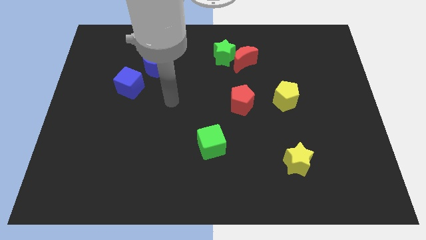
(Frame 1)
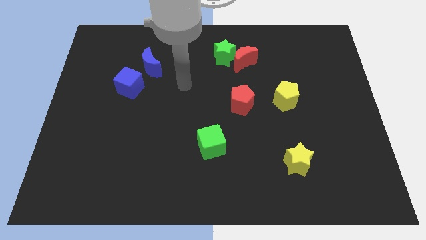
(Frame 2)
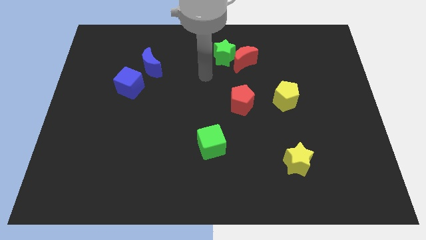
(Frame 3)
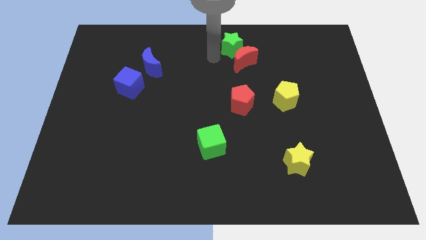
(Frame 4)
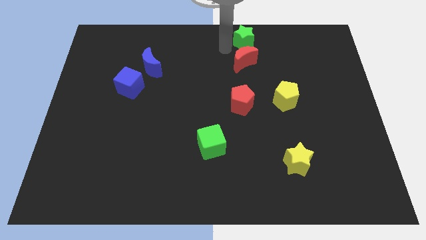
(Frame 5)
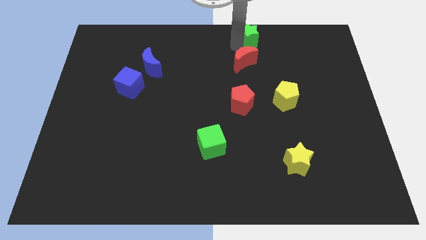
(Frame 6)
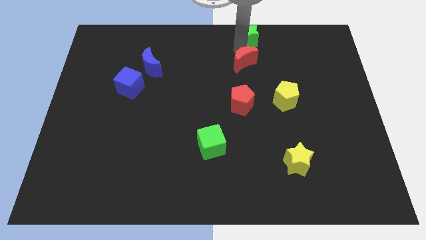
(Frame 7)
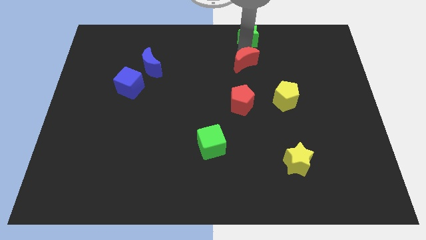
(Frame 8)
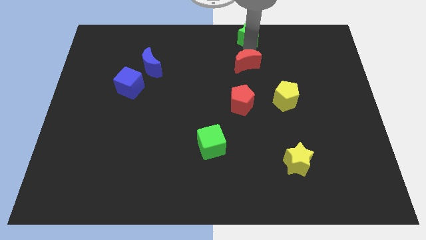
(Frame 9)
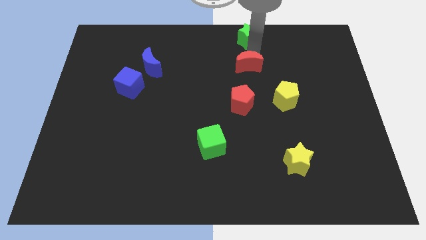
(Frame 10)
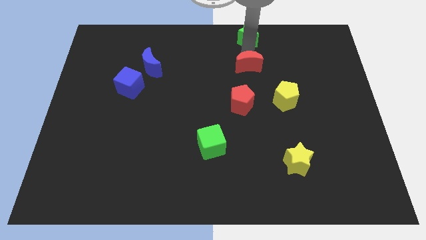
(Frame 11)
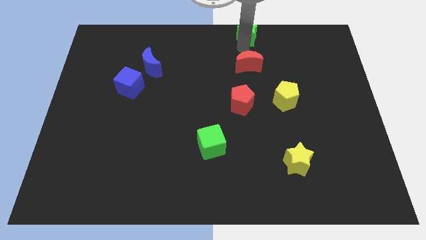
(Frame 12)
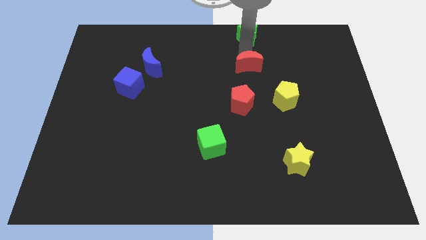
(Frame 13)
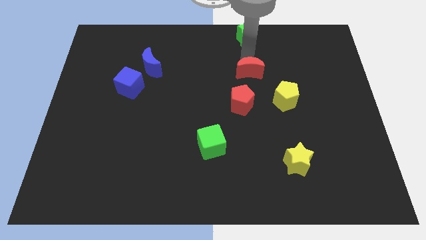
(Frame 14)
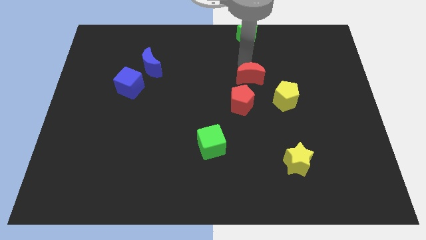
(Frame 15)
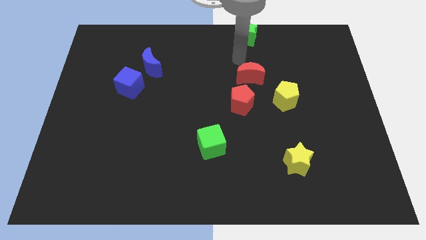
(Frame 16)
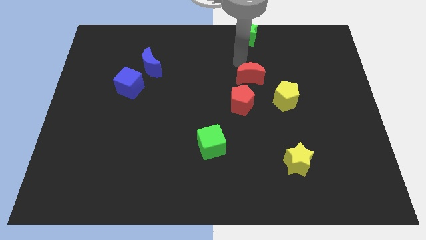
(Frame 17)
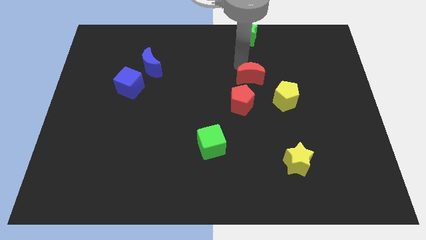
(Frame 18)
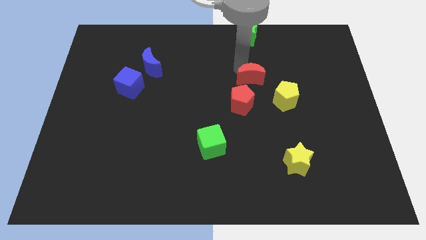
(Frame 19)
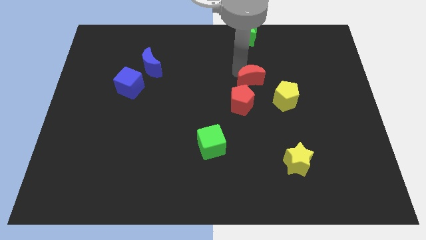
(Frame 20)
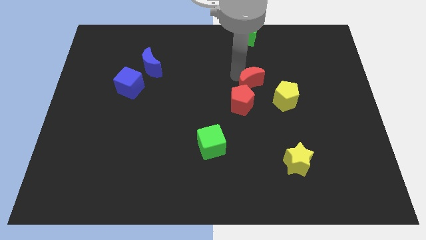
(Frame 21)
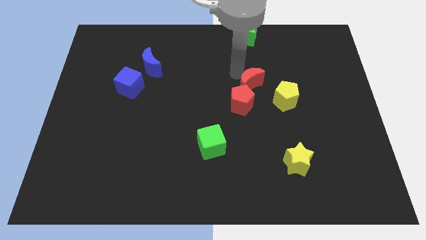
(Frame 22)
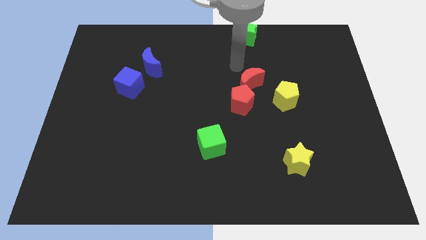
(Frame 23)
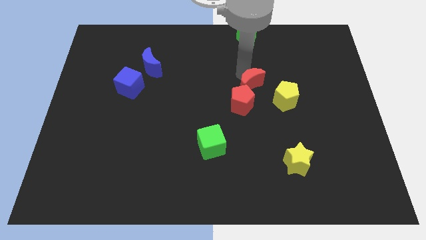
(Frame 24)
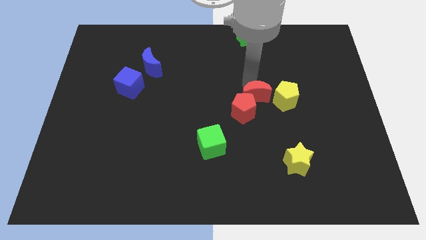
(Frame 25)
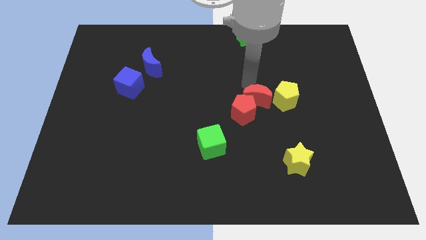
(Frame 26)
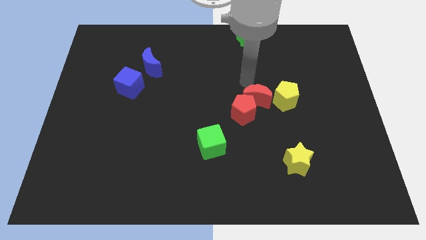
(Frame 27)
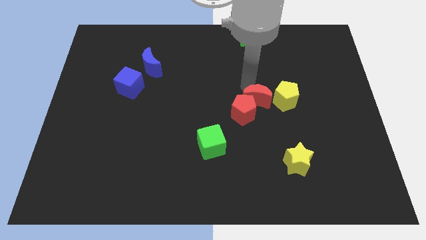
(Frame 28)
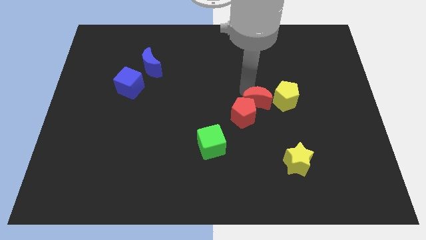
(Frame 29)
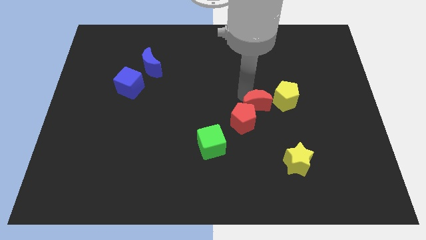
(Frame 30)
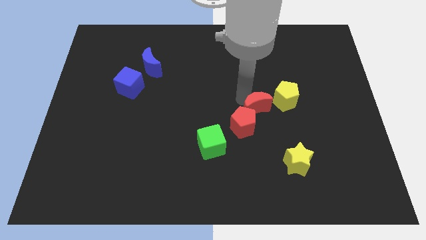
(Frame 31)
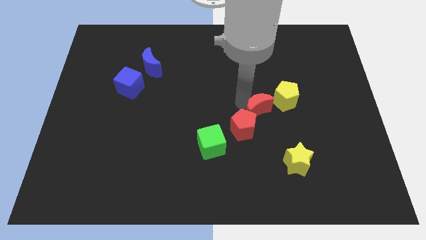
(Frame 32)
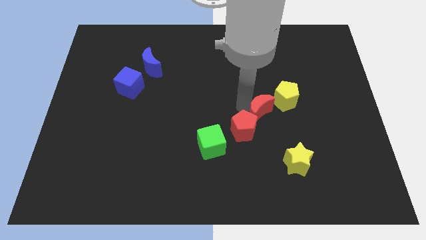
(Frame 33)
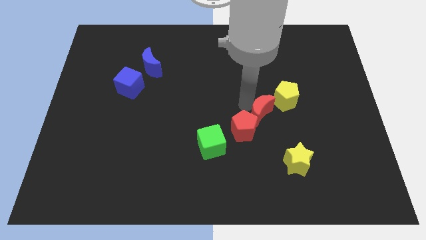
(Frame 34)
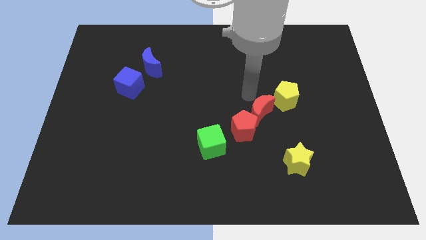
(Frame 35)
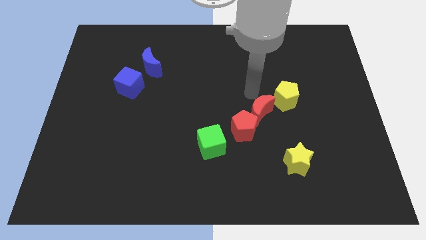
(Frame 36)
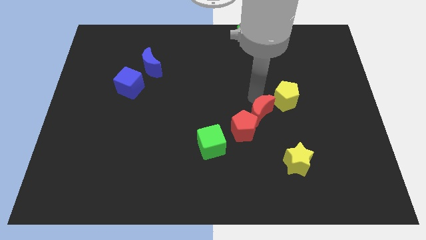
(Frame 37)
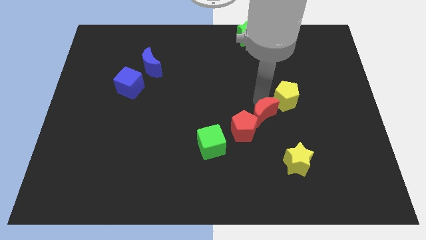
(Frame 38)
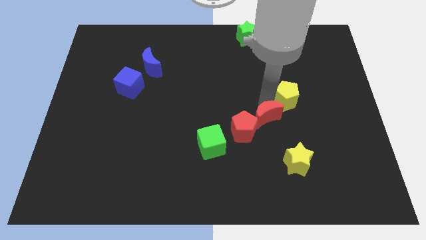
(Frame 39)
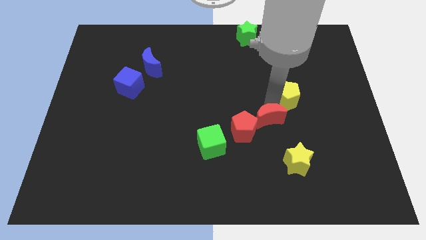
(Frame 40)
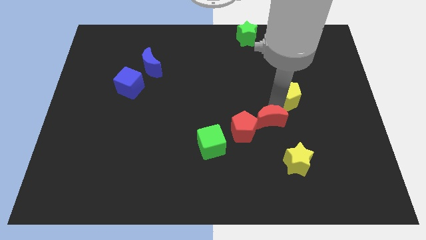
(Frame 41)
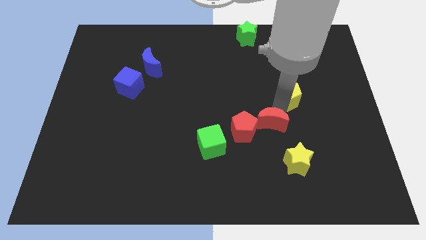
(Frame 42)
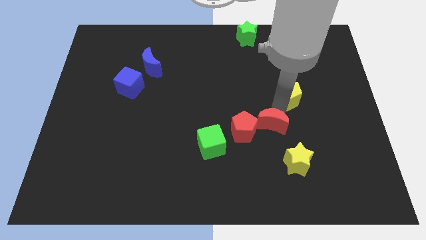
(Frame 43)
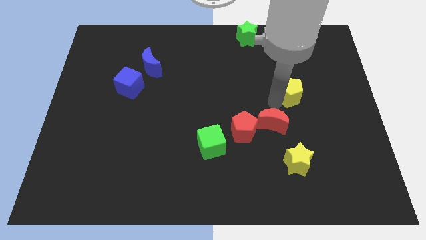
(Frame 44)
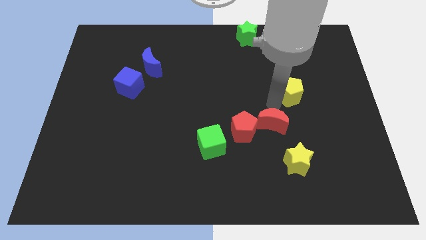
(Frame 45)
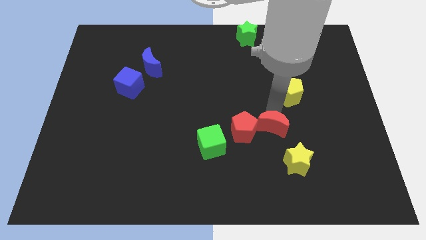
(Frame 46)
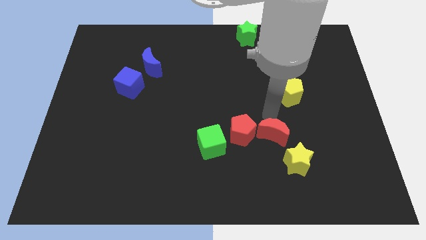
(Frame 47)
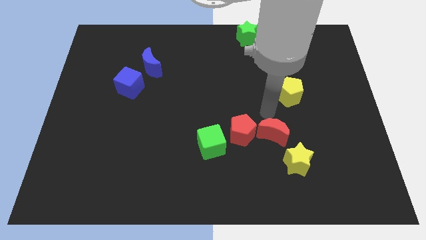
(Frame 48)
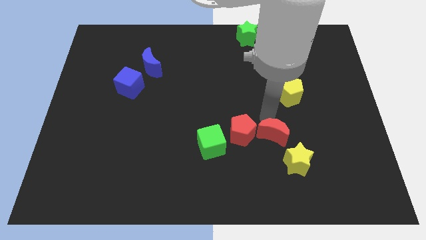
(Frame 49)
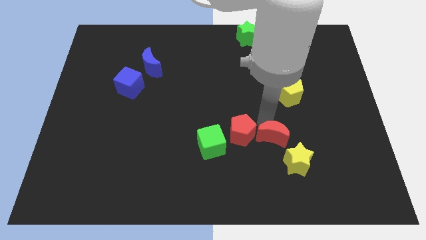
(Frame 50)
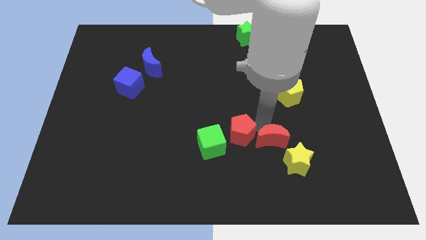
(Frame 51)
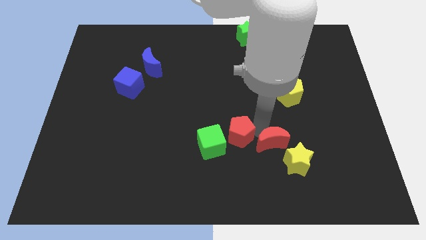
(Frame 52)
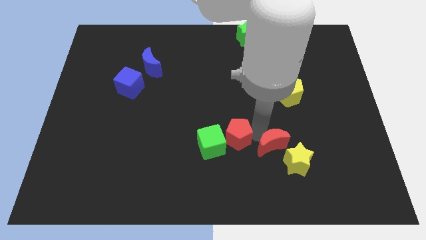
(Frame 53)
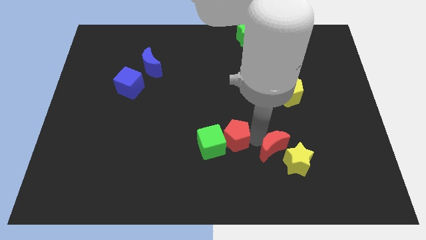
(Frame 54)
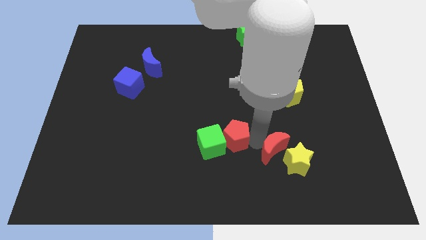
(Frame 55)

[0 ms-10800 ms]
move the red moon towards the yellow star

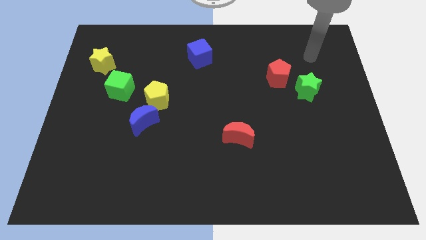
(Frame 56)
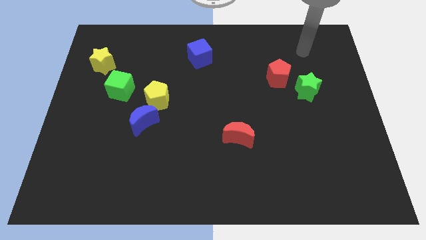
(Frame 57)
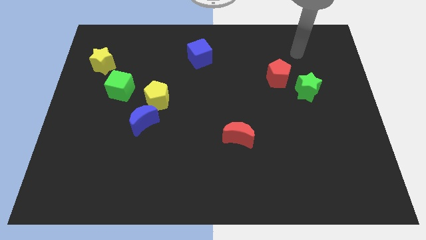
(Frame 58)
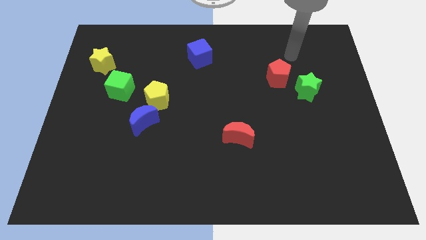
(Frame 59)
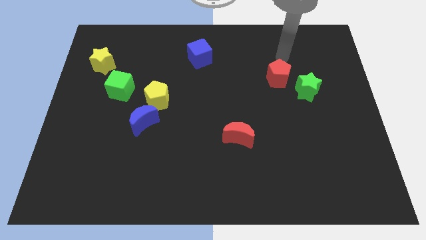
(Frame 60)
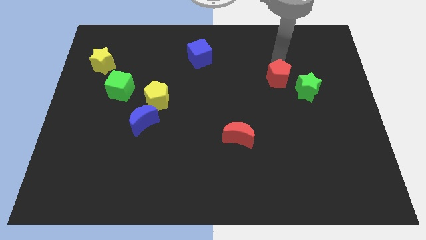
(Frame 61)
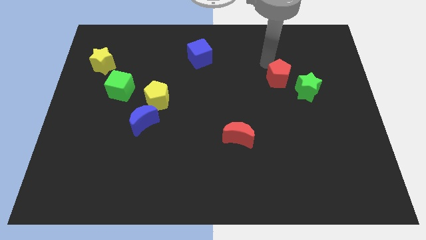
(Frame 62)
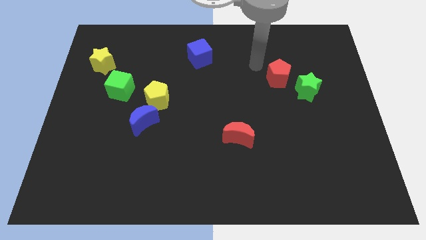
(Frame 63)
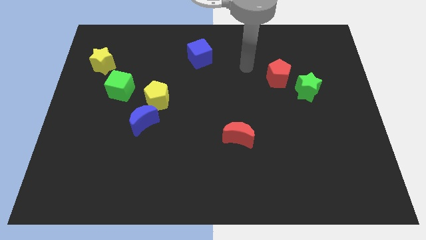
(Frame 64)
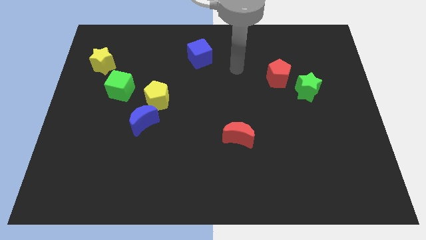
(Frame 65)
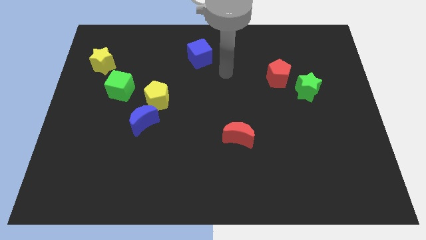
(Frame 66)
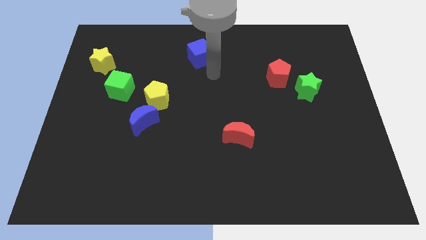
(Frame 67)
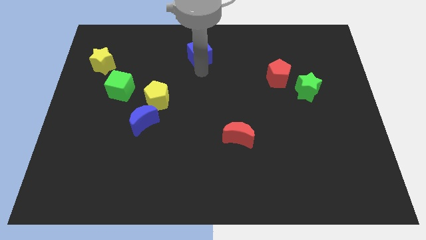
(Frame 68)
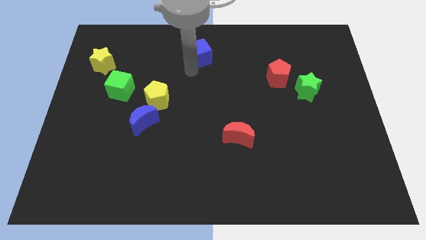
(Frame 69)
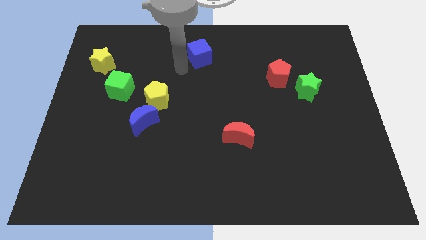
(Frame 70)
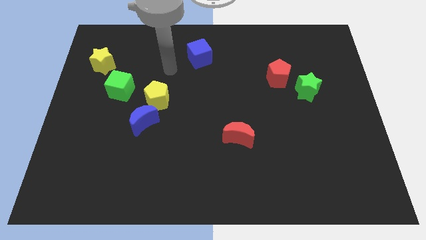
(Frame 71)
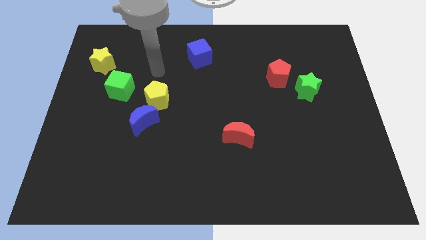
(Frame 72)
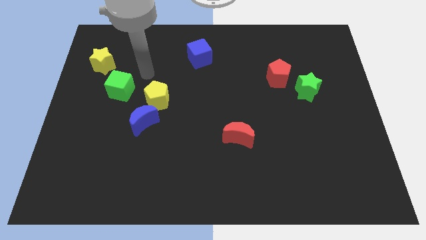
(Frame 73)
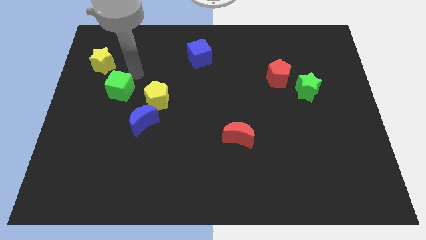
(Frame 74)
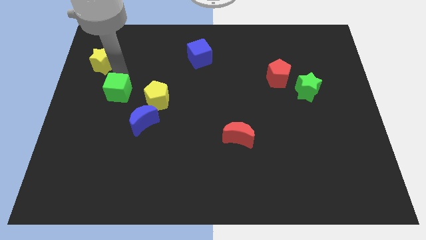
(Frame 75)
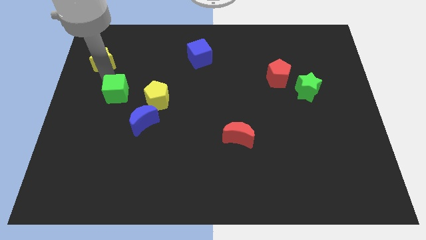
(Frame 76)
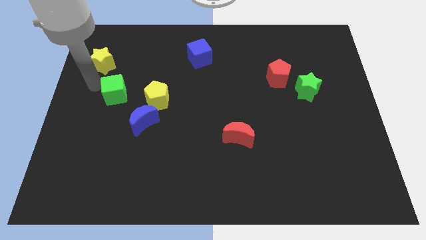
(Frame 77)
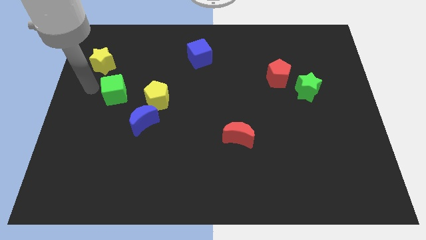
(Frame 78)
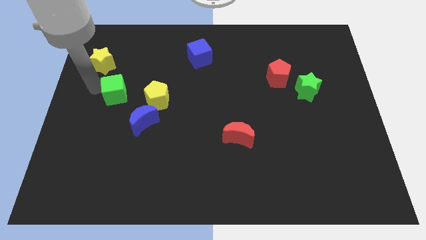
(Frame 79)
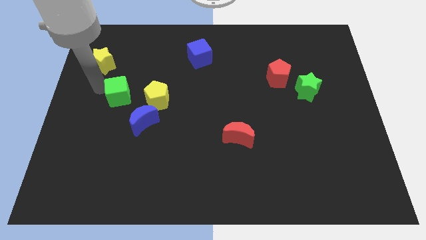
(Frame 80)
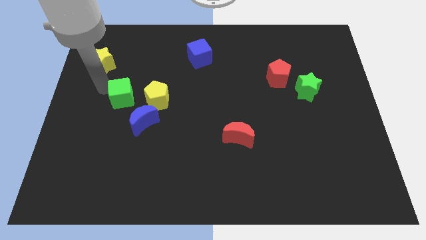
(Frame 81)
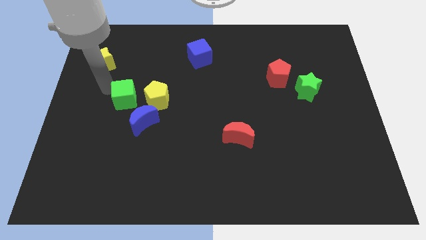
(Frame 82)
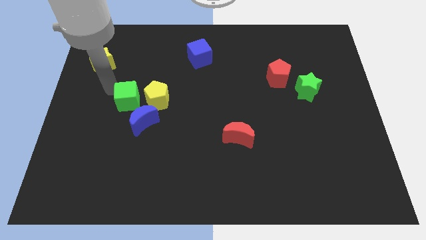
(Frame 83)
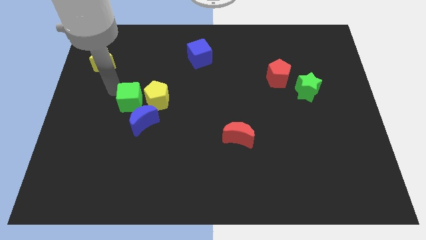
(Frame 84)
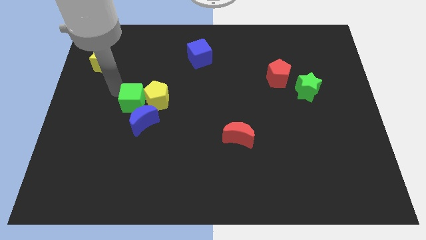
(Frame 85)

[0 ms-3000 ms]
push the green cube to the yellow pentagon

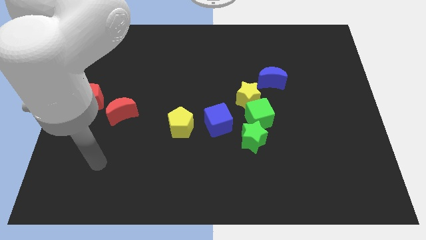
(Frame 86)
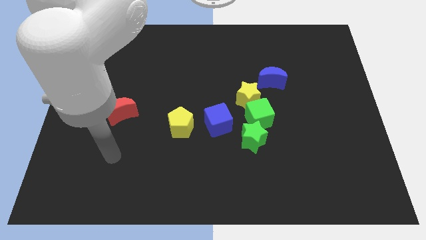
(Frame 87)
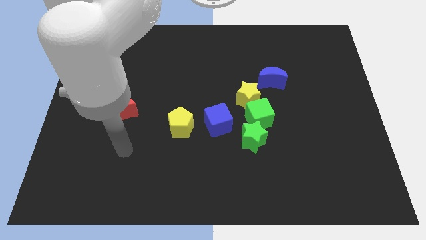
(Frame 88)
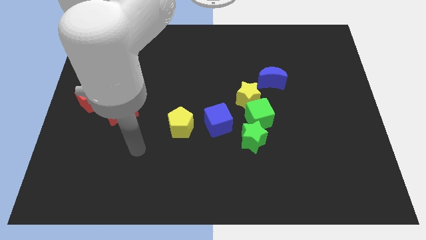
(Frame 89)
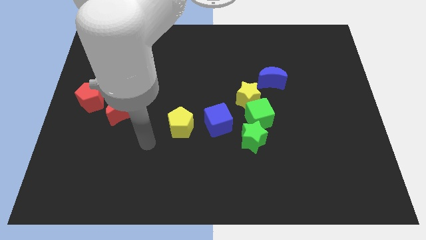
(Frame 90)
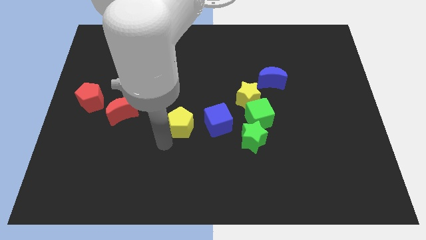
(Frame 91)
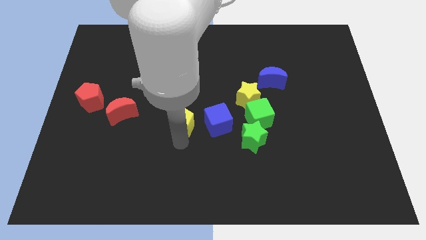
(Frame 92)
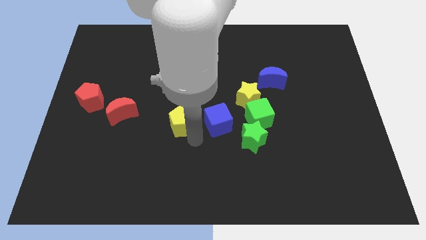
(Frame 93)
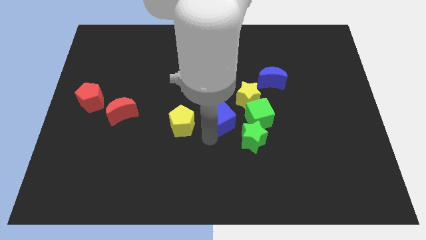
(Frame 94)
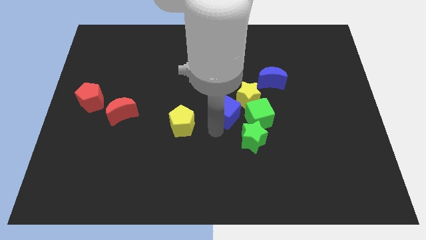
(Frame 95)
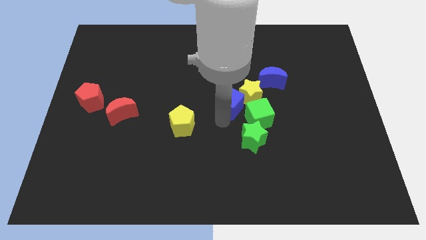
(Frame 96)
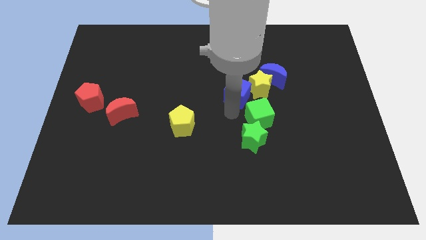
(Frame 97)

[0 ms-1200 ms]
push the yellow star towards the blue moon
